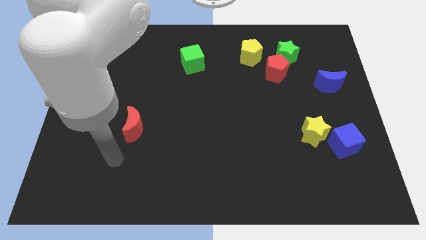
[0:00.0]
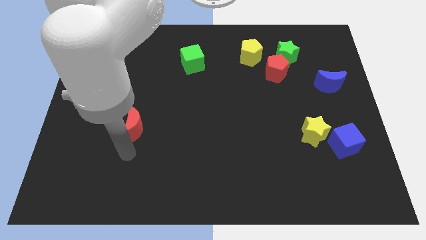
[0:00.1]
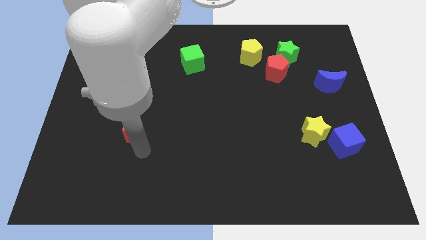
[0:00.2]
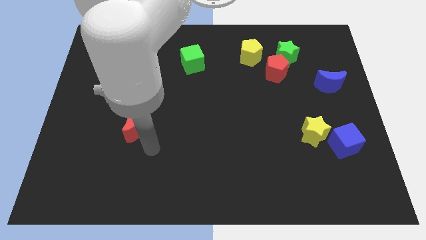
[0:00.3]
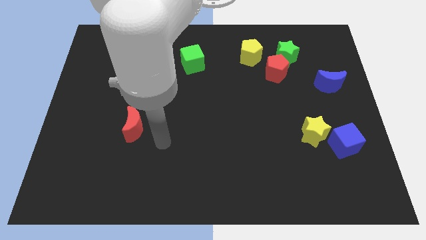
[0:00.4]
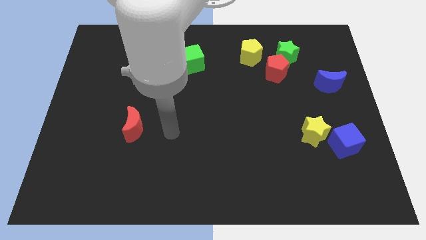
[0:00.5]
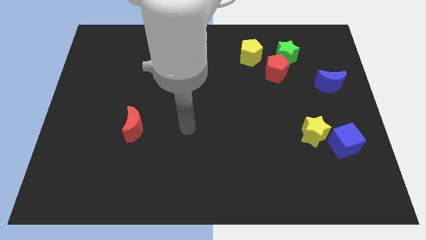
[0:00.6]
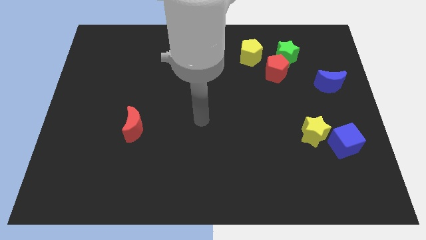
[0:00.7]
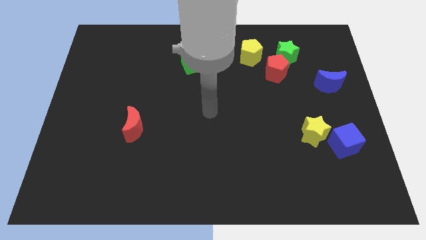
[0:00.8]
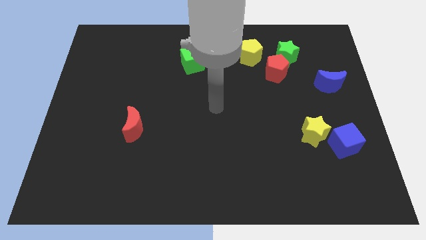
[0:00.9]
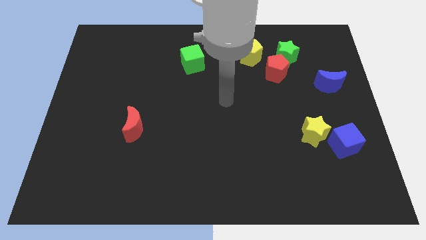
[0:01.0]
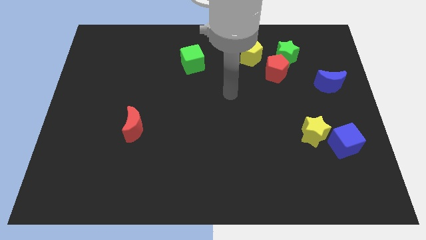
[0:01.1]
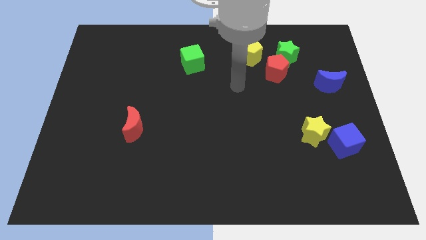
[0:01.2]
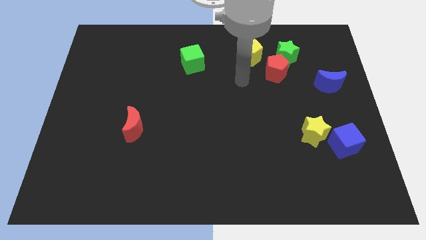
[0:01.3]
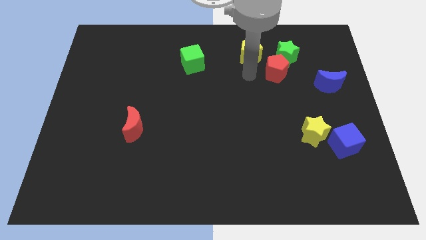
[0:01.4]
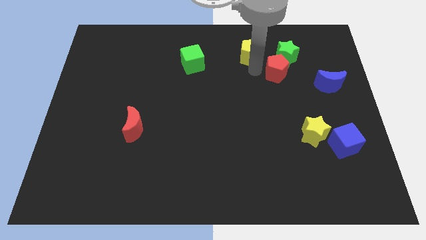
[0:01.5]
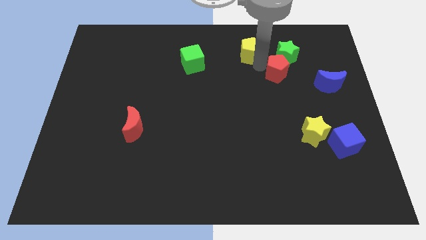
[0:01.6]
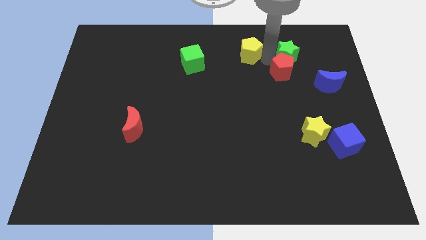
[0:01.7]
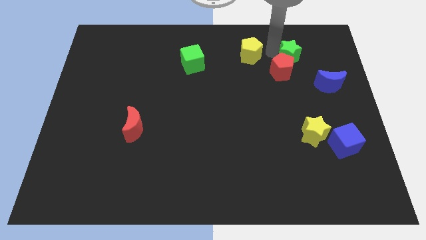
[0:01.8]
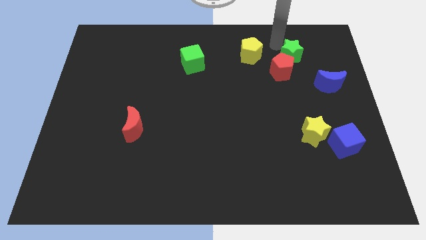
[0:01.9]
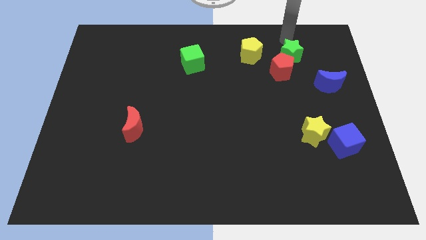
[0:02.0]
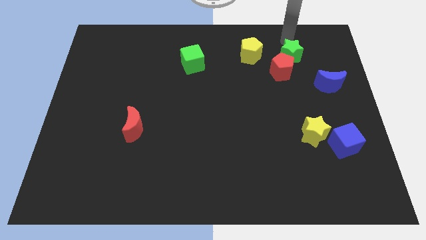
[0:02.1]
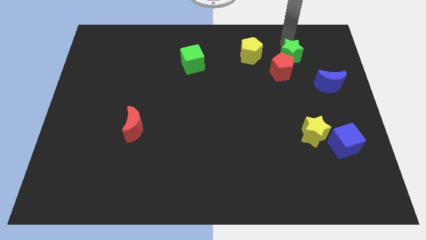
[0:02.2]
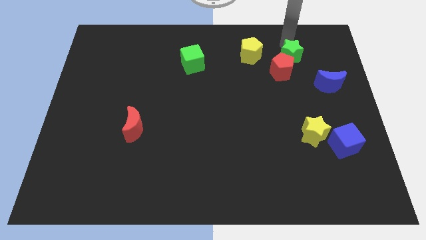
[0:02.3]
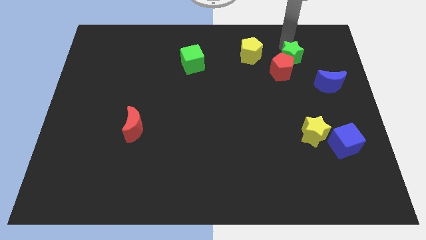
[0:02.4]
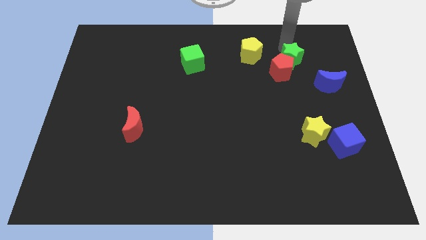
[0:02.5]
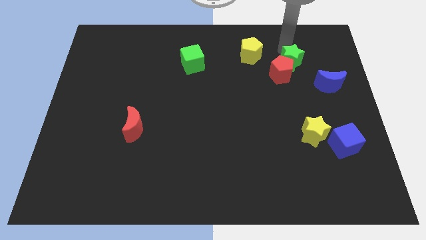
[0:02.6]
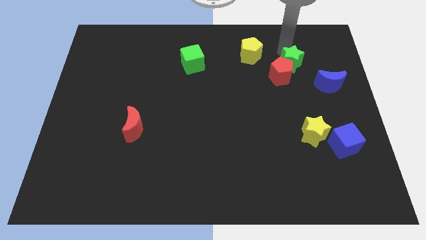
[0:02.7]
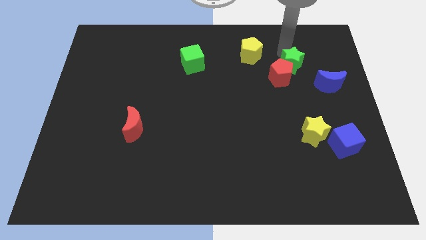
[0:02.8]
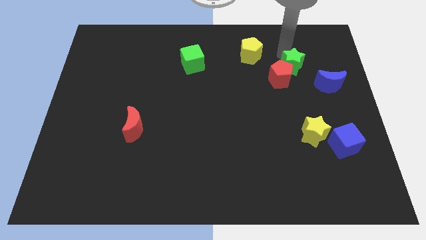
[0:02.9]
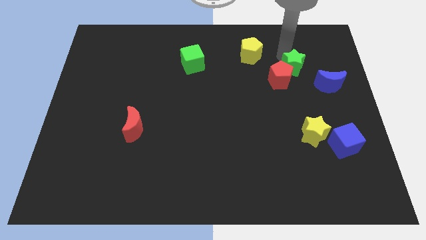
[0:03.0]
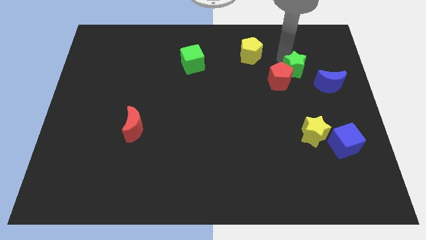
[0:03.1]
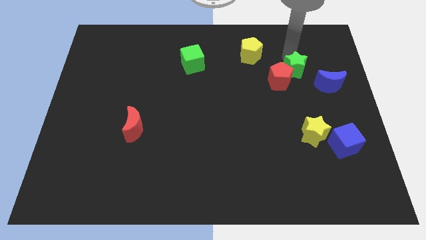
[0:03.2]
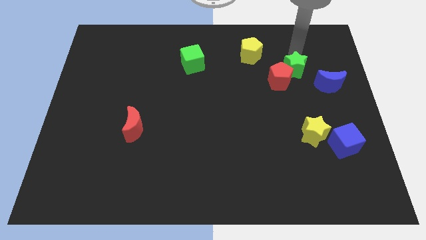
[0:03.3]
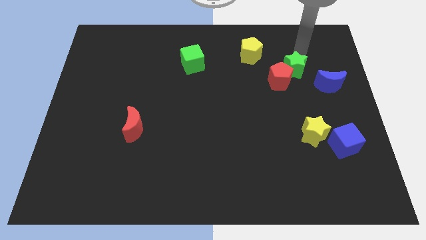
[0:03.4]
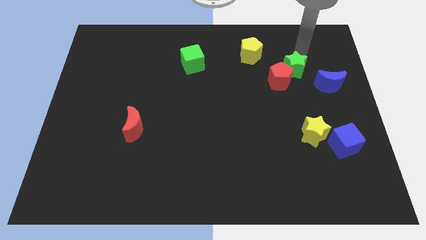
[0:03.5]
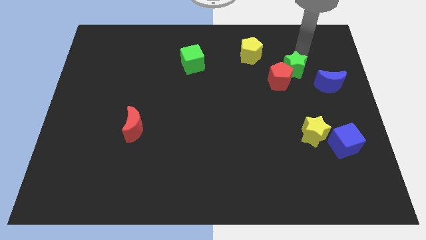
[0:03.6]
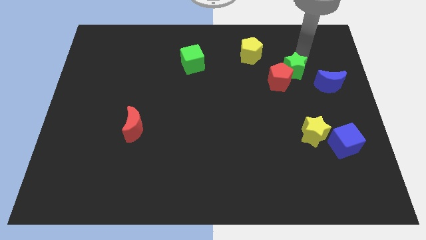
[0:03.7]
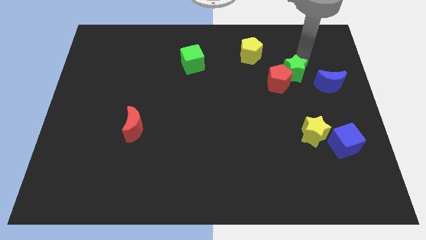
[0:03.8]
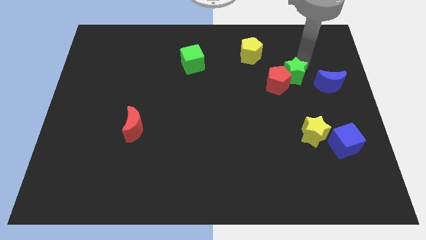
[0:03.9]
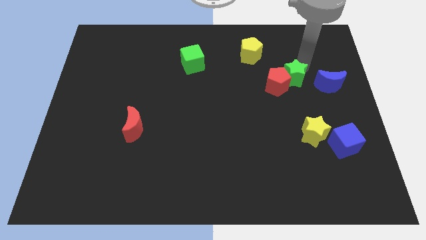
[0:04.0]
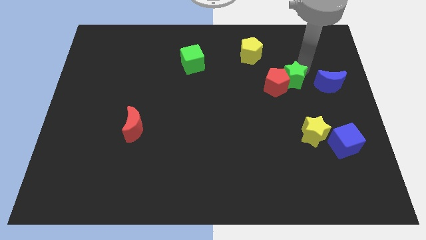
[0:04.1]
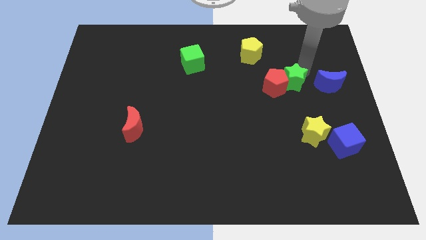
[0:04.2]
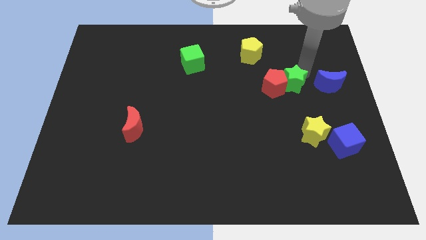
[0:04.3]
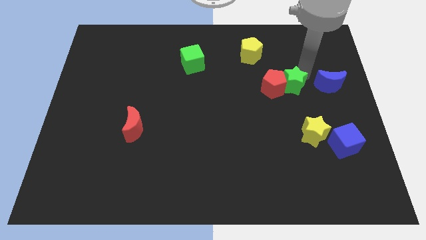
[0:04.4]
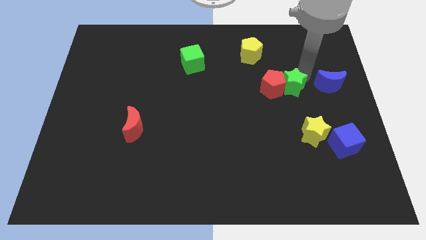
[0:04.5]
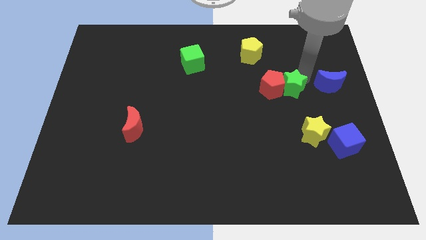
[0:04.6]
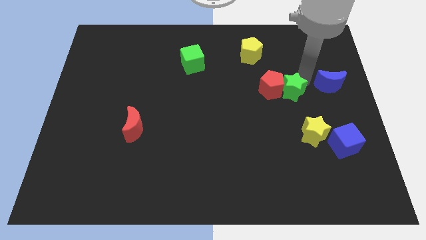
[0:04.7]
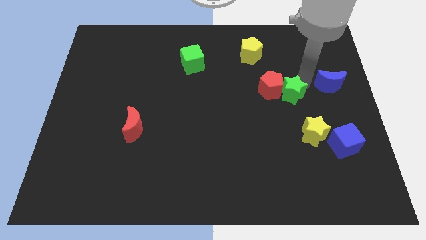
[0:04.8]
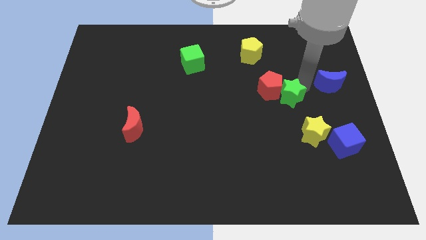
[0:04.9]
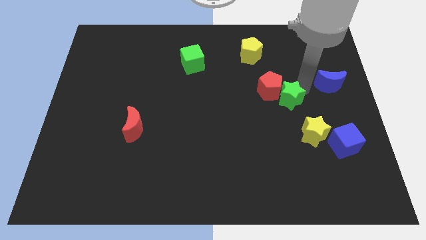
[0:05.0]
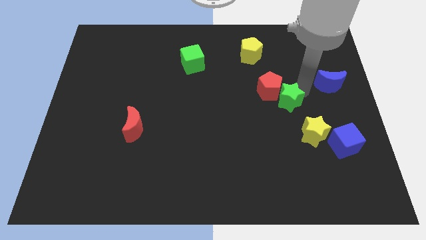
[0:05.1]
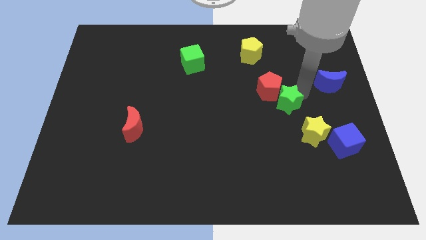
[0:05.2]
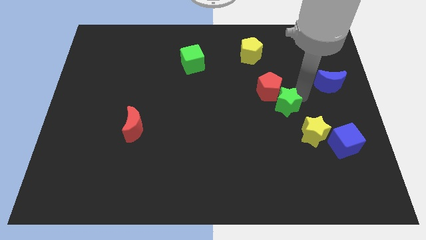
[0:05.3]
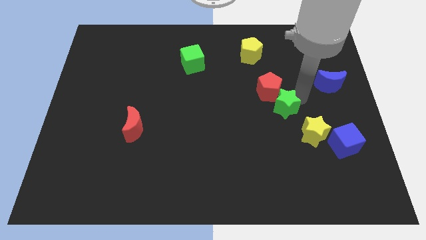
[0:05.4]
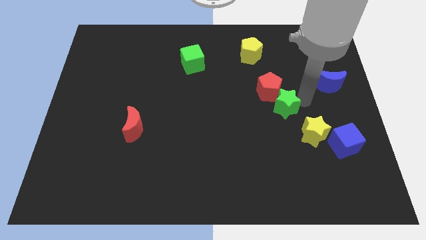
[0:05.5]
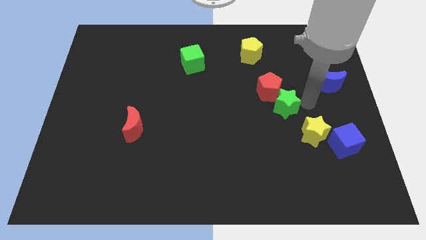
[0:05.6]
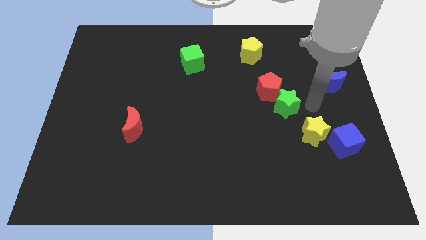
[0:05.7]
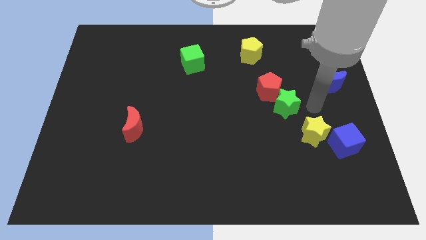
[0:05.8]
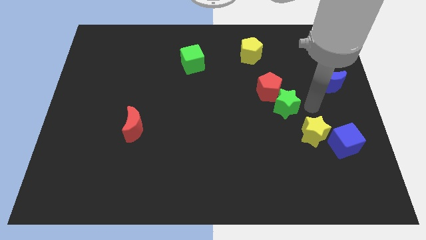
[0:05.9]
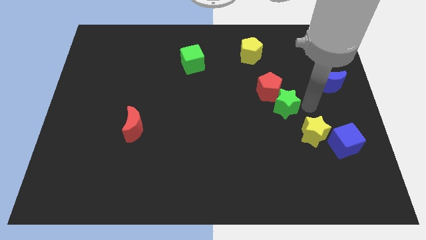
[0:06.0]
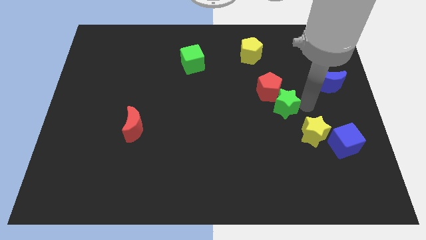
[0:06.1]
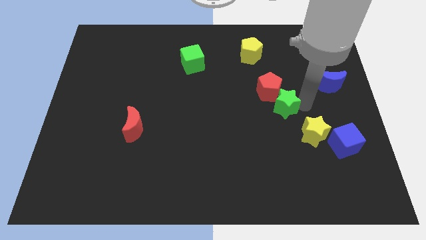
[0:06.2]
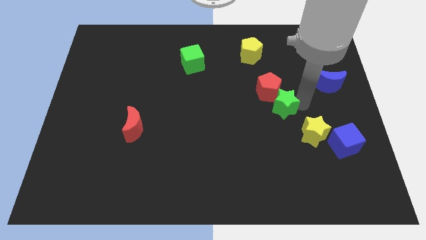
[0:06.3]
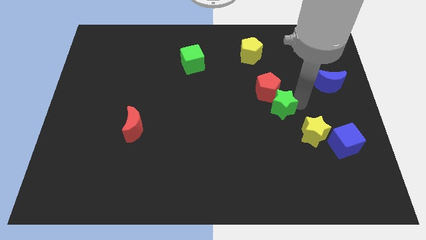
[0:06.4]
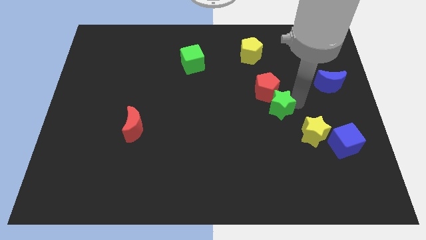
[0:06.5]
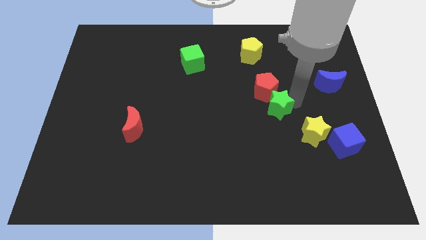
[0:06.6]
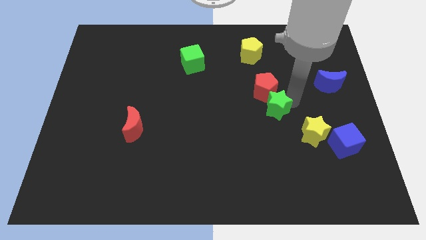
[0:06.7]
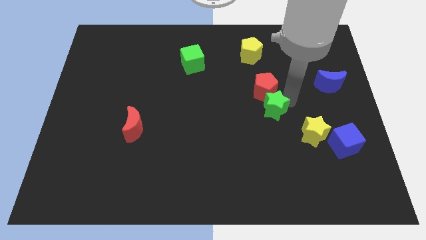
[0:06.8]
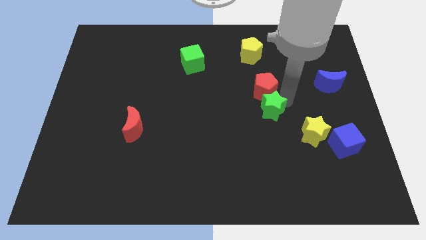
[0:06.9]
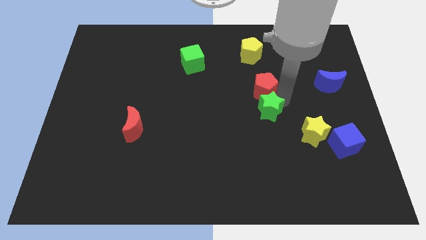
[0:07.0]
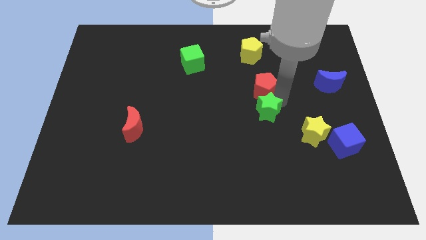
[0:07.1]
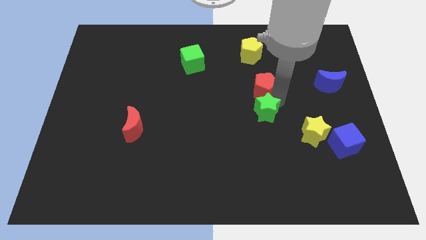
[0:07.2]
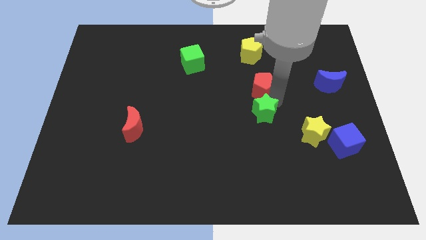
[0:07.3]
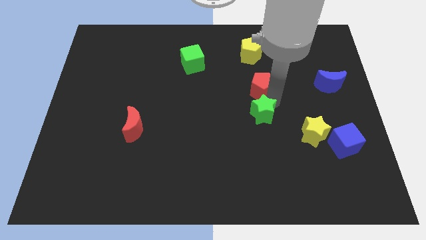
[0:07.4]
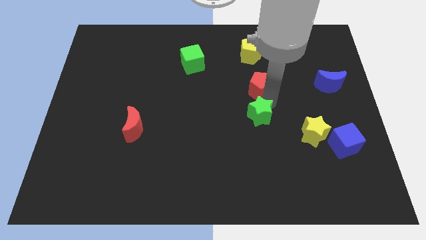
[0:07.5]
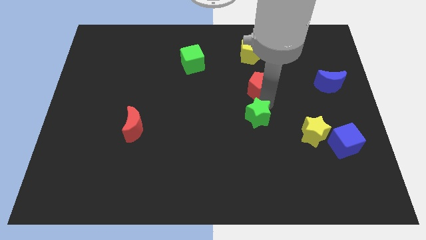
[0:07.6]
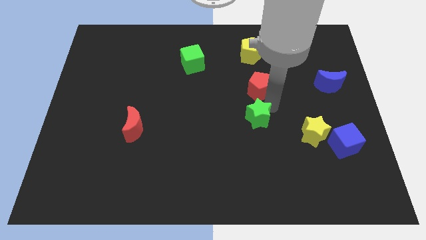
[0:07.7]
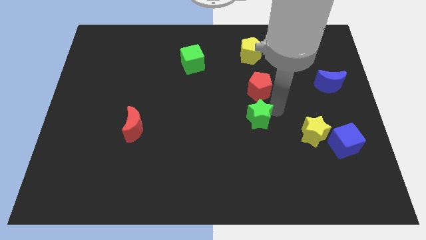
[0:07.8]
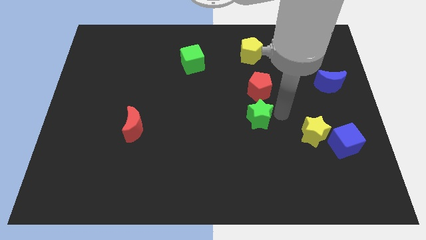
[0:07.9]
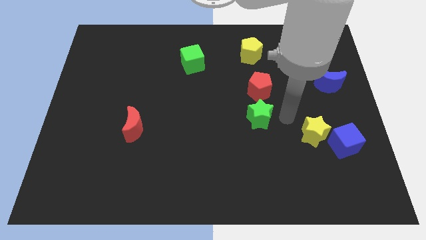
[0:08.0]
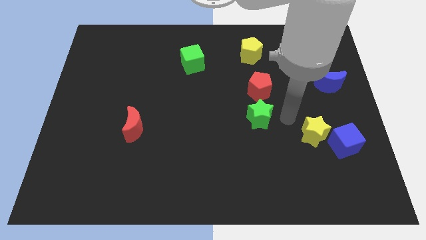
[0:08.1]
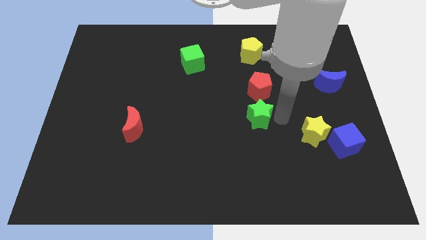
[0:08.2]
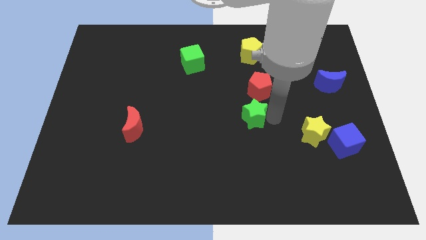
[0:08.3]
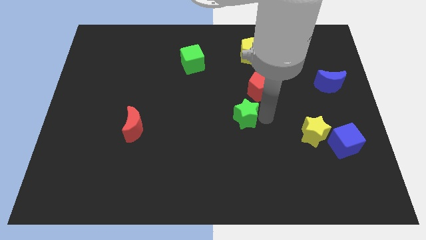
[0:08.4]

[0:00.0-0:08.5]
push the green star diagonally downwards and left
